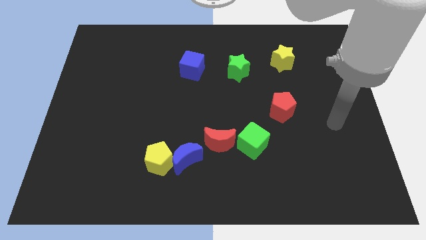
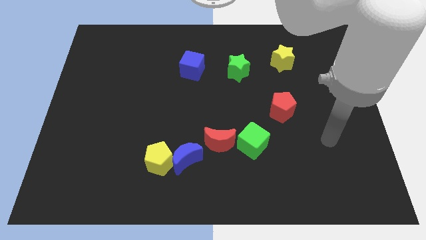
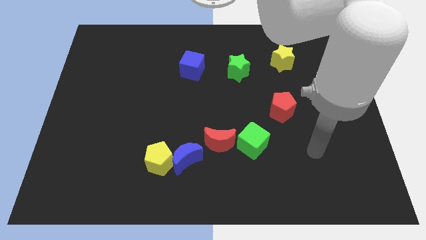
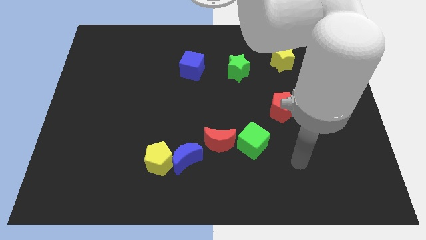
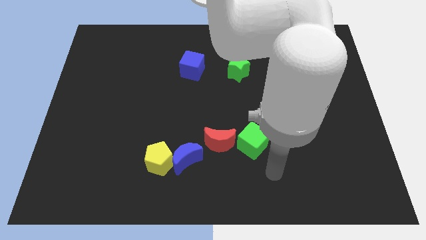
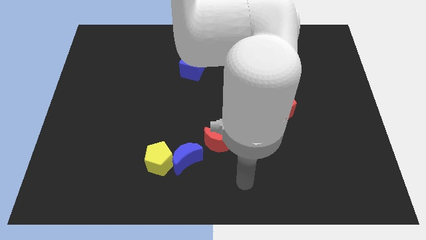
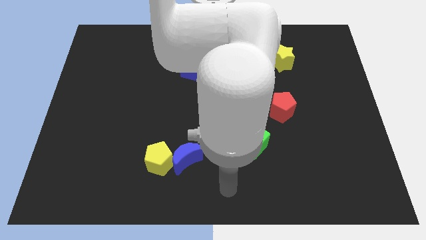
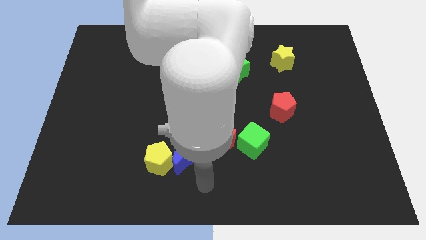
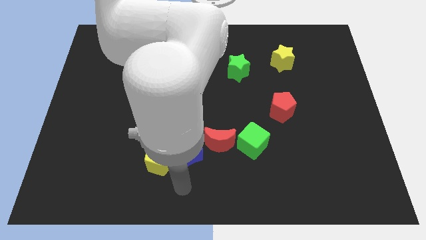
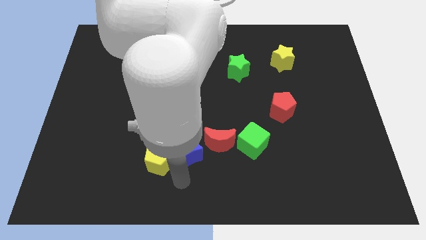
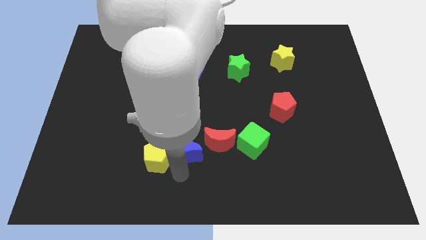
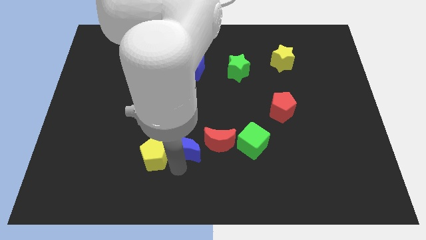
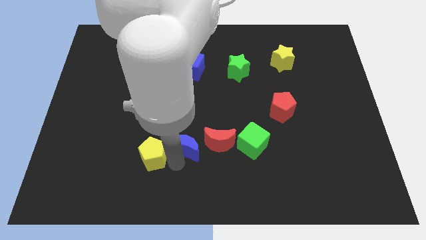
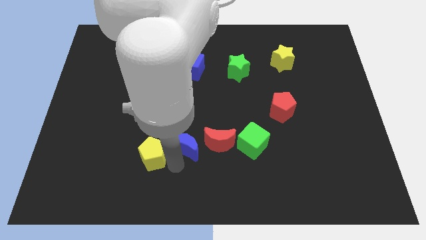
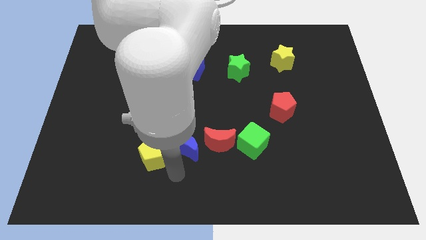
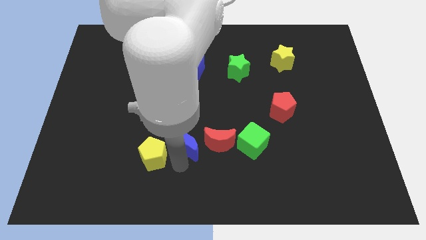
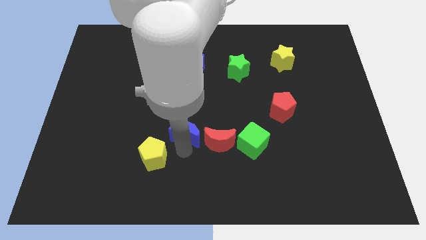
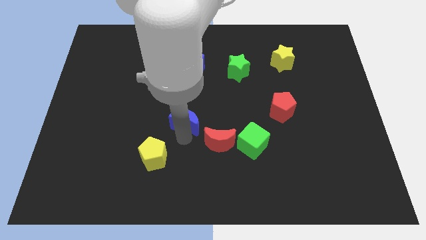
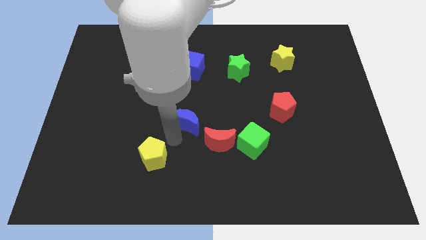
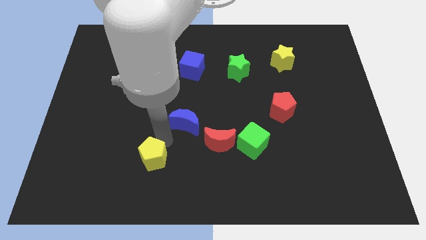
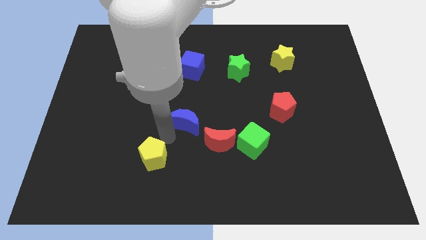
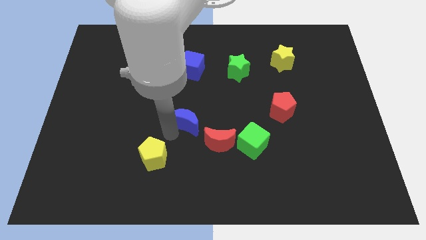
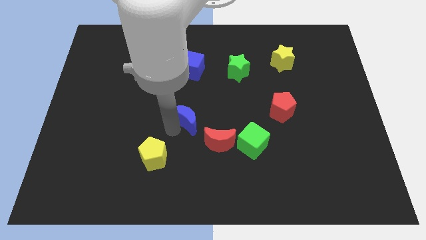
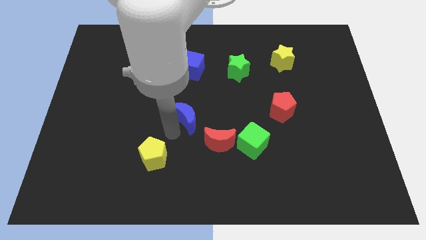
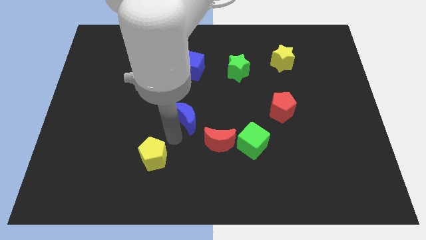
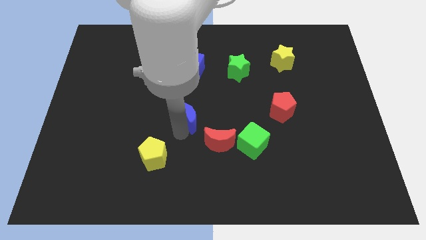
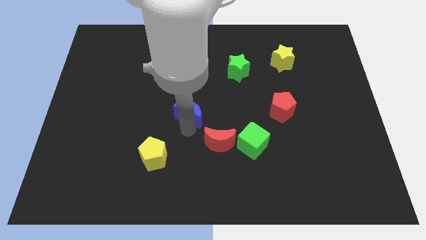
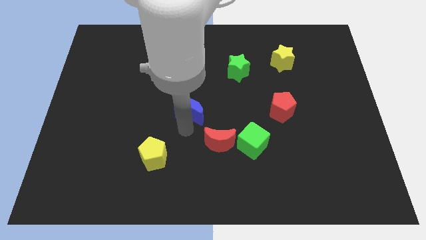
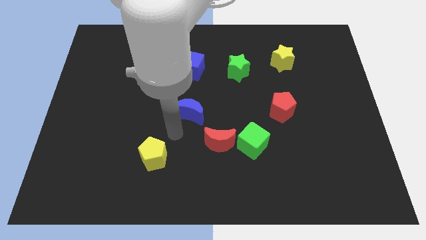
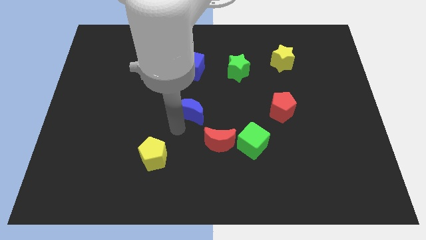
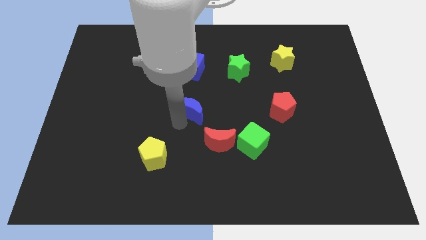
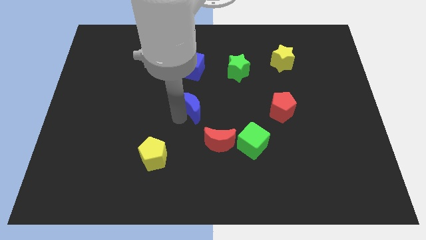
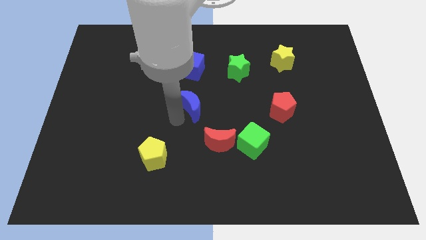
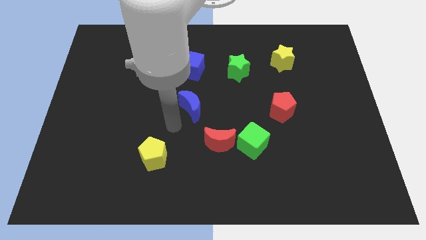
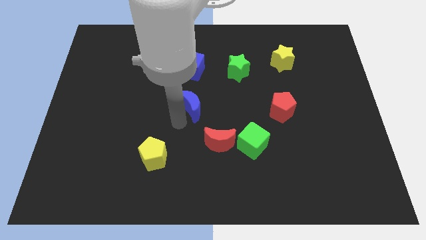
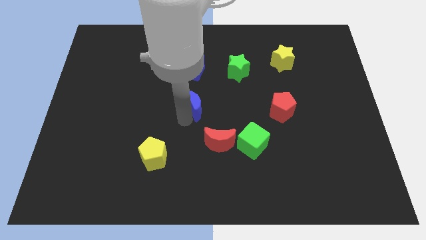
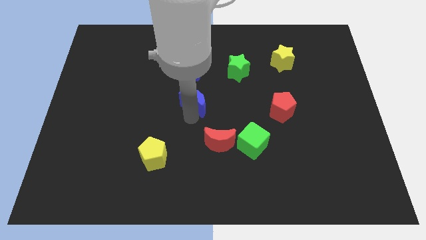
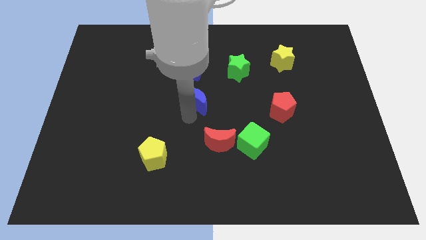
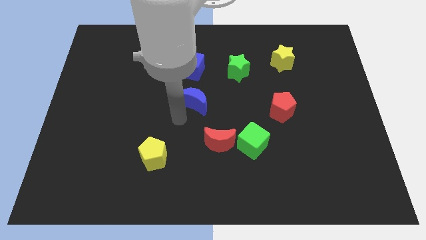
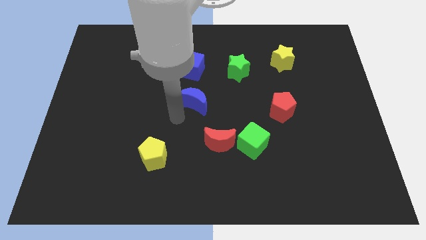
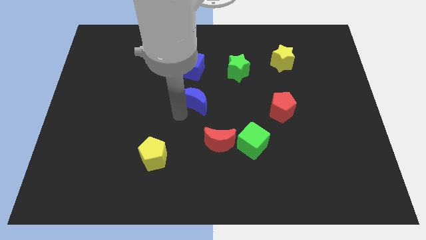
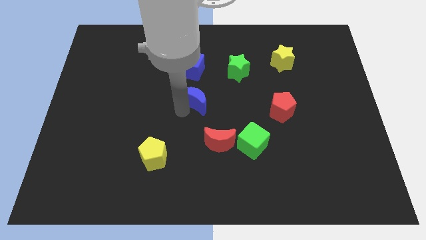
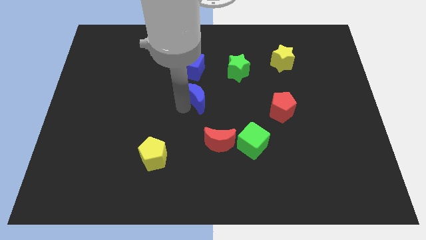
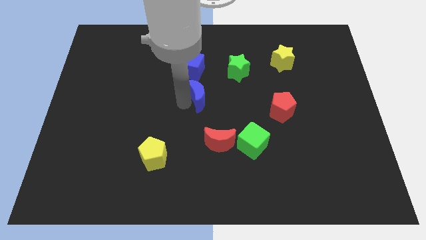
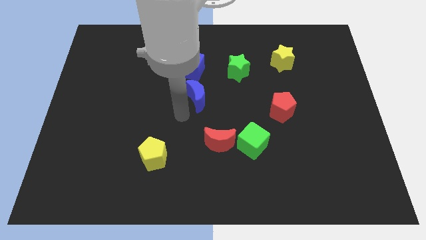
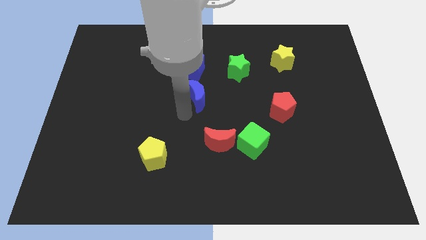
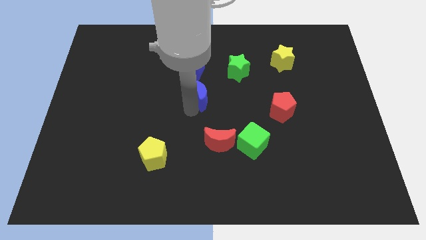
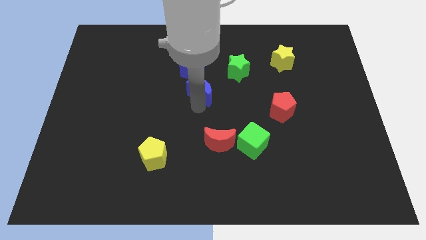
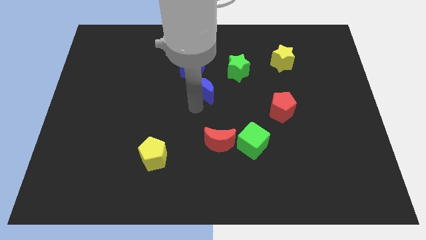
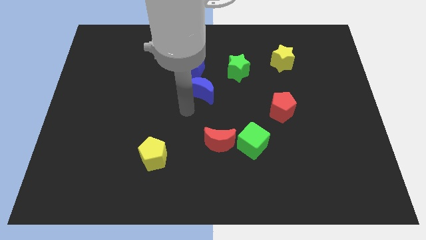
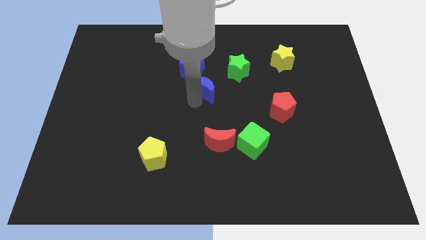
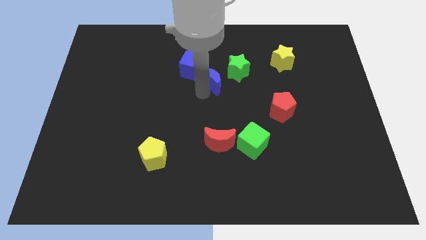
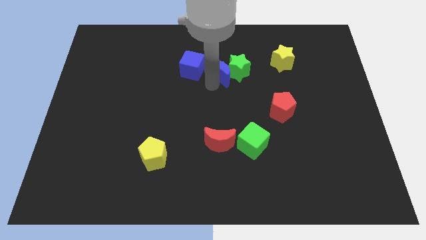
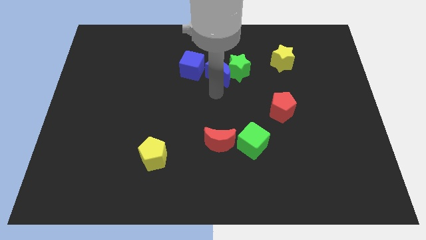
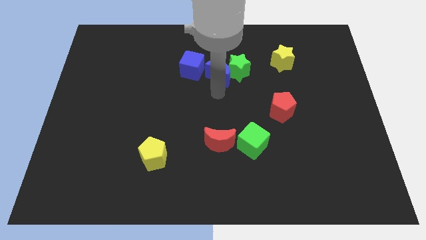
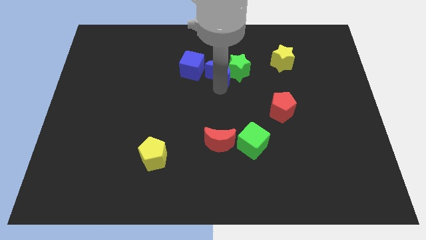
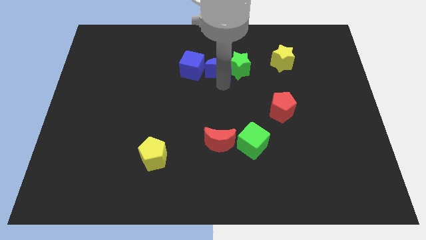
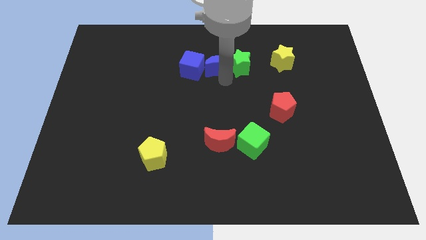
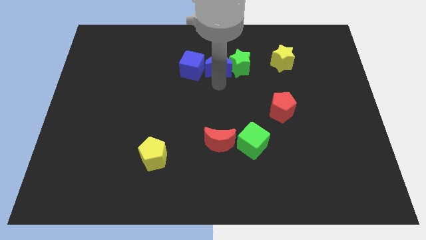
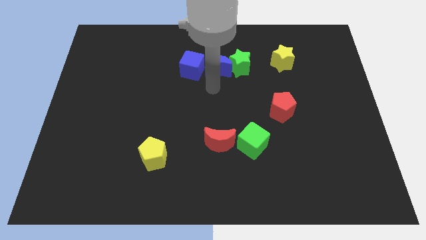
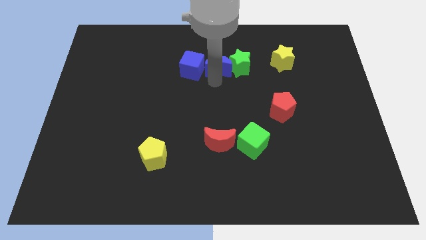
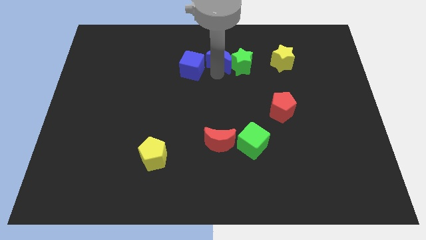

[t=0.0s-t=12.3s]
push the blue moon to the left of the yellow star

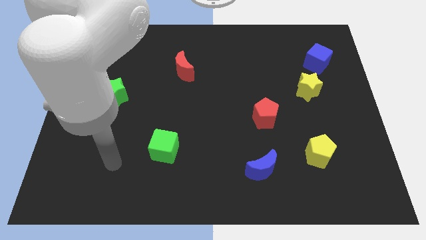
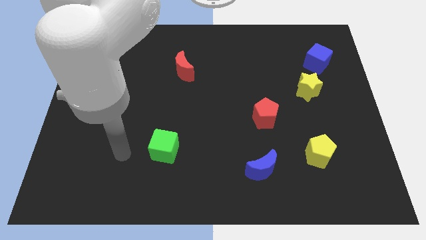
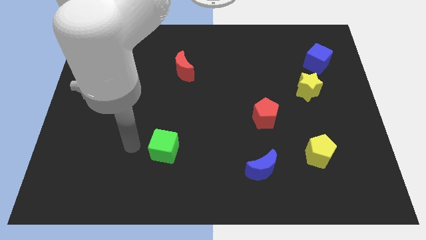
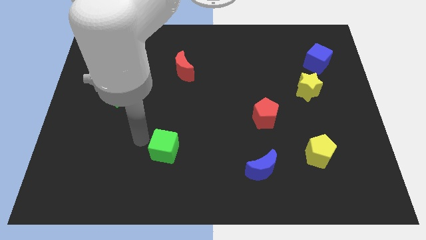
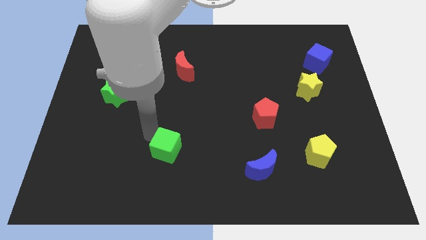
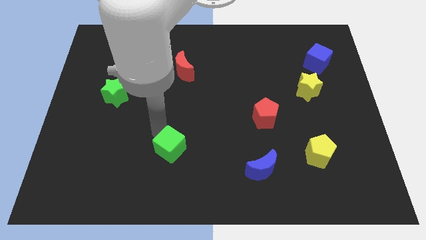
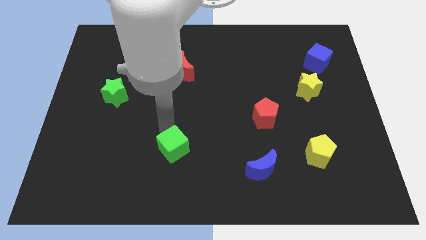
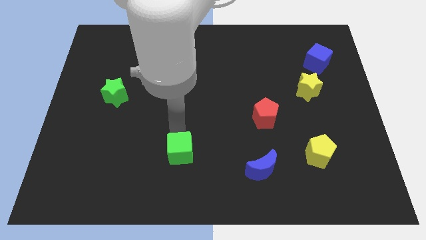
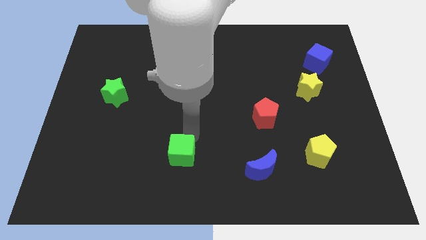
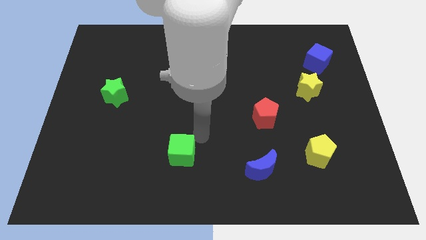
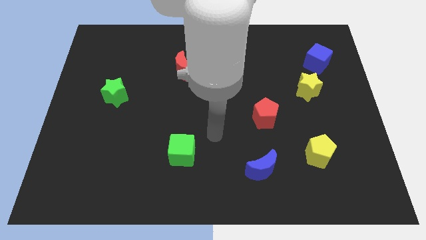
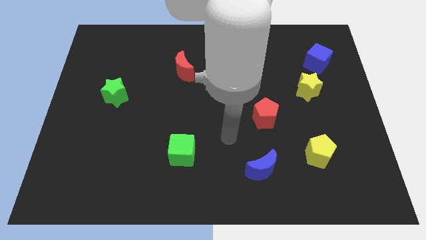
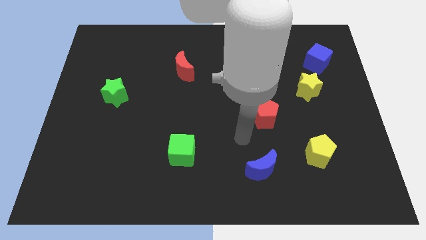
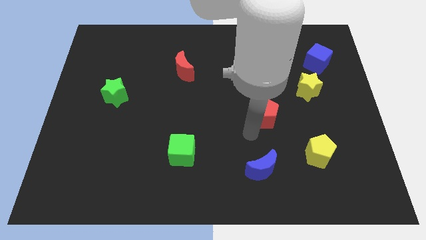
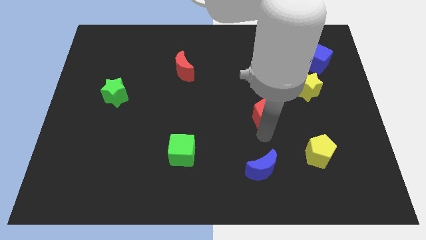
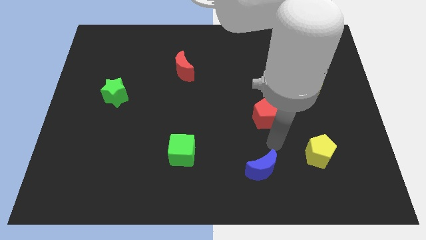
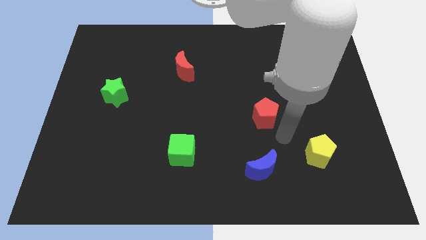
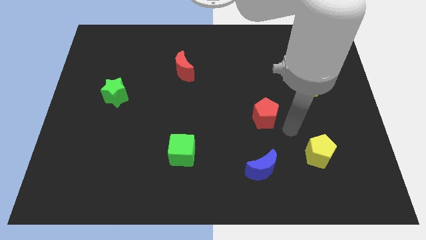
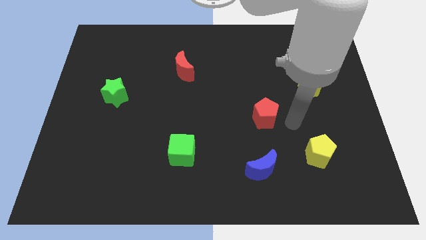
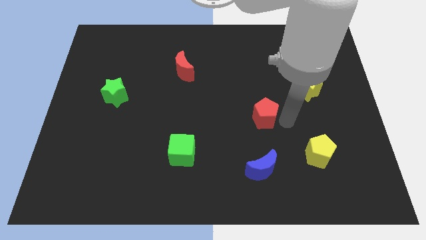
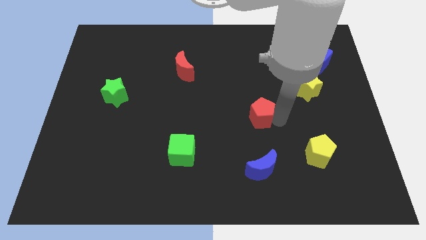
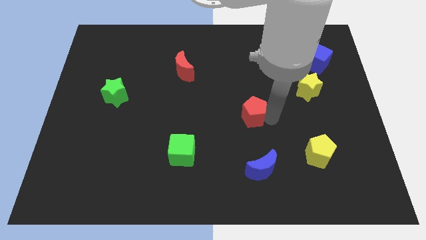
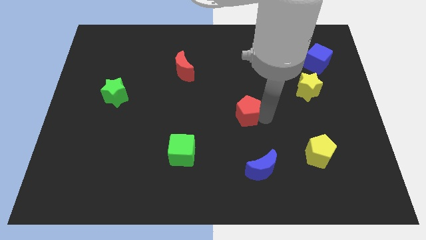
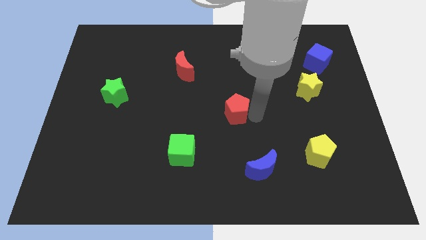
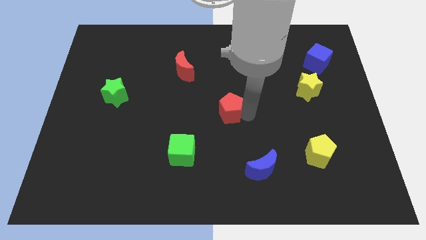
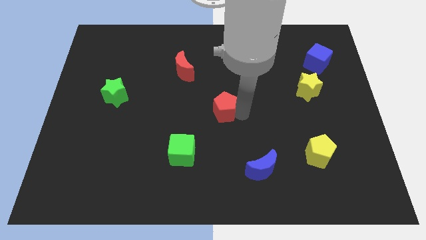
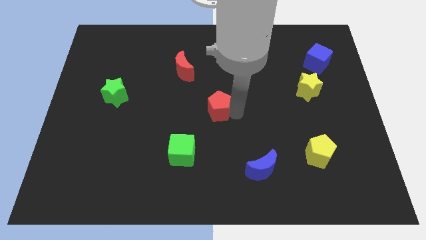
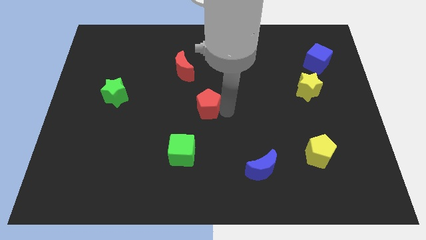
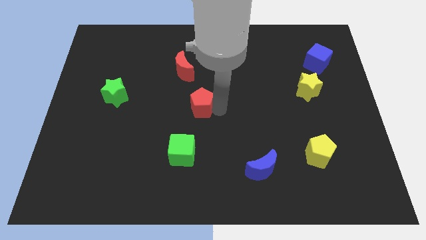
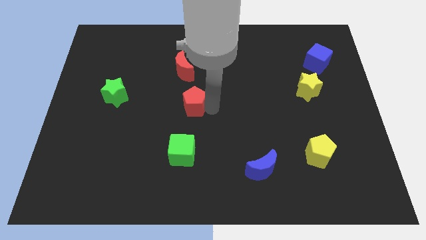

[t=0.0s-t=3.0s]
slide the red pentagon to the bottom of the red moon
